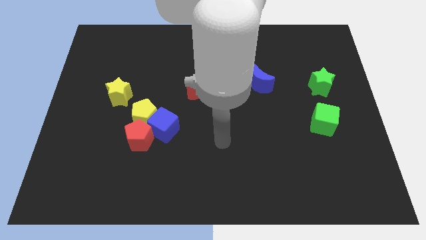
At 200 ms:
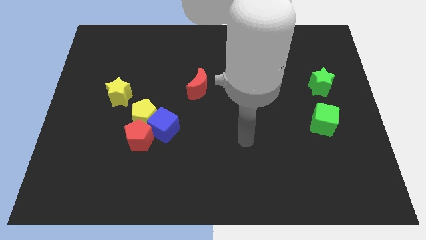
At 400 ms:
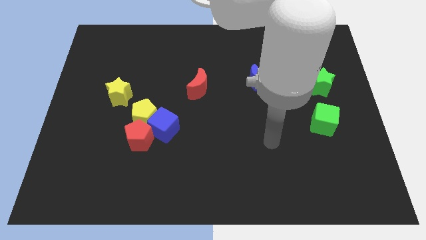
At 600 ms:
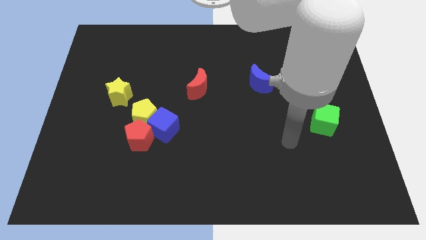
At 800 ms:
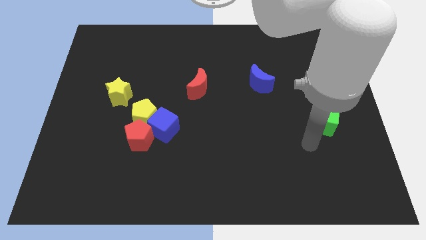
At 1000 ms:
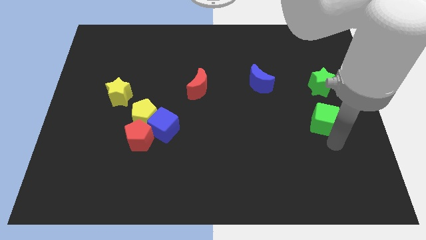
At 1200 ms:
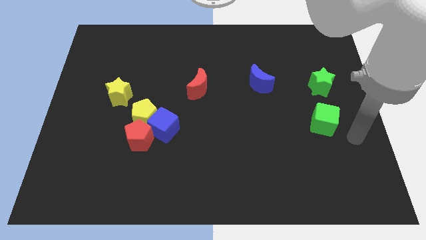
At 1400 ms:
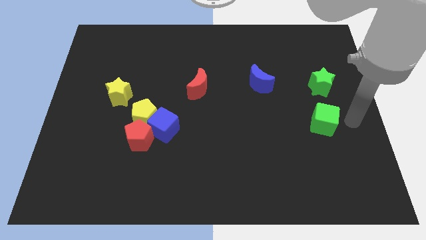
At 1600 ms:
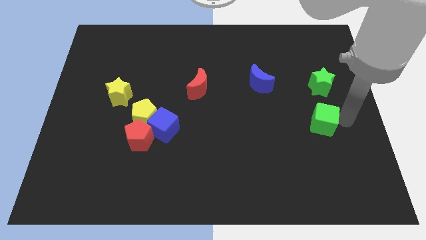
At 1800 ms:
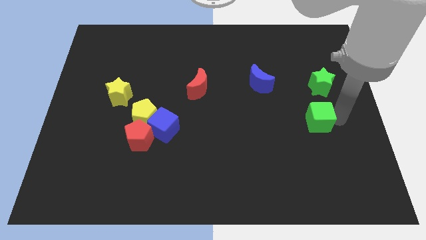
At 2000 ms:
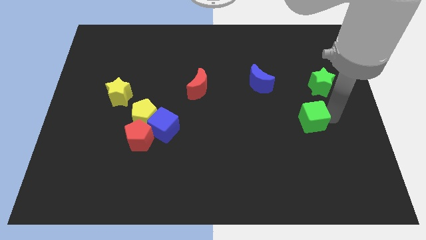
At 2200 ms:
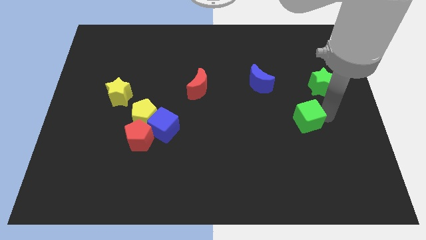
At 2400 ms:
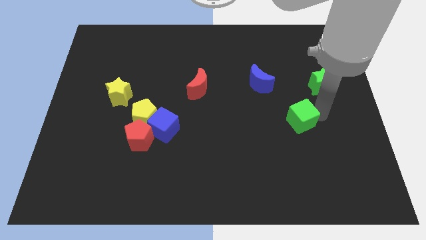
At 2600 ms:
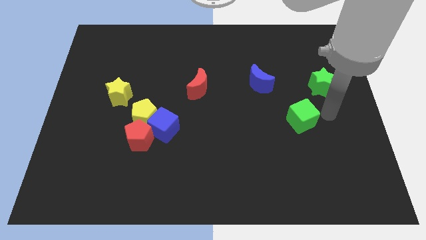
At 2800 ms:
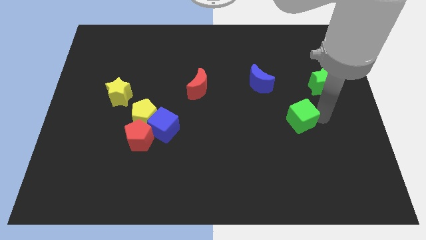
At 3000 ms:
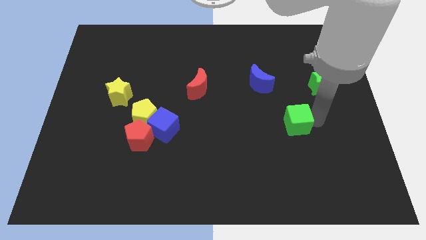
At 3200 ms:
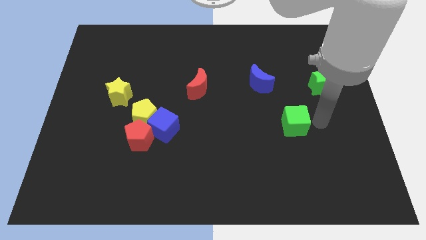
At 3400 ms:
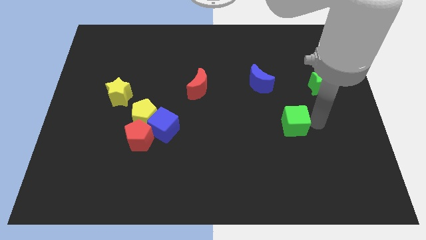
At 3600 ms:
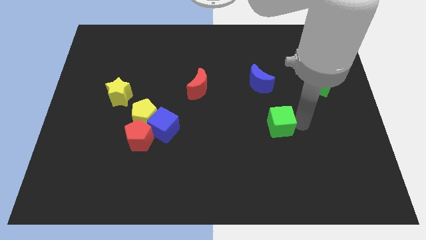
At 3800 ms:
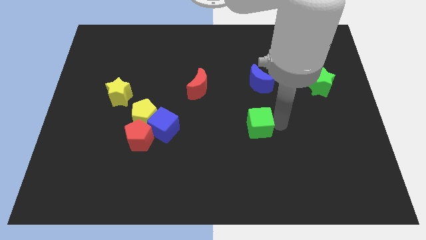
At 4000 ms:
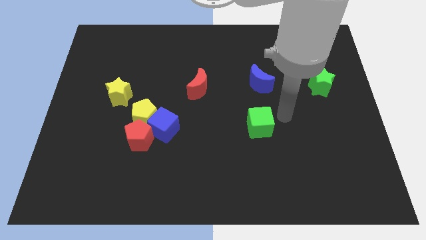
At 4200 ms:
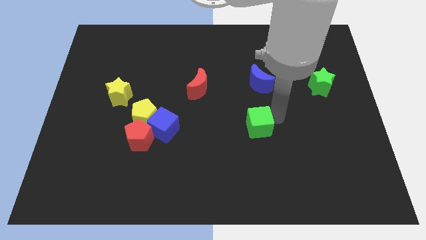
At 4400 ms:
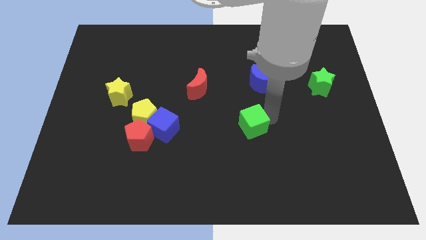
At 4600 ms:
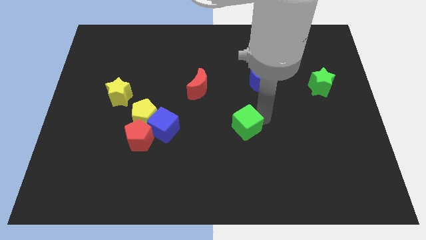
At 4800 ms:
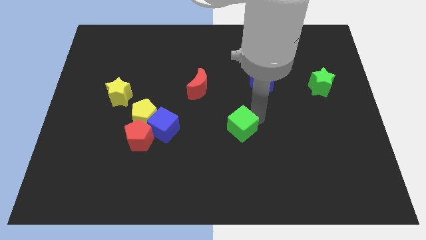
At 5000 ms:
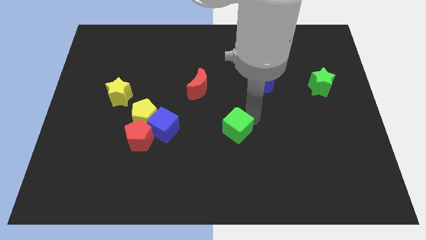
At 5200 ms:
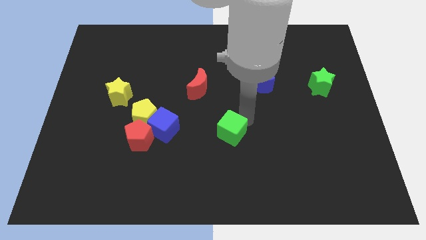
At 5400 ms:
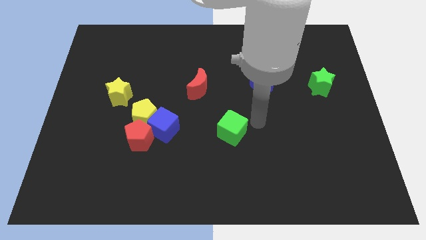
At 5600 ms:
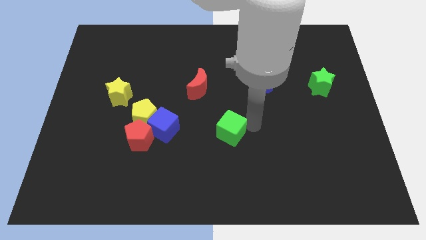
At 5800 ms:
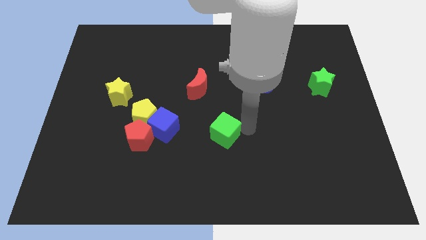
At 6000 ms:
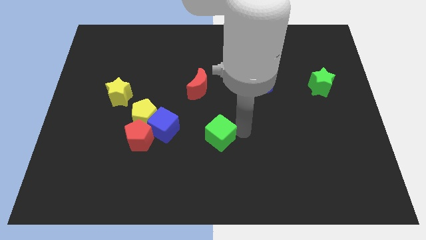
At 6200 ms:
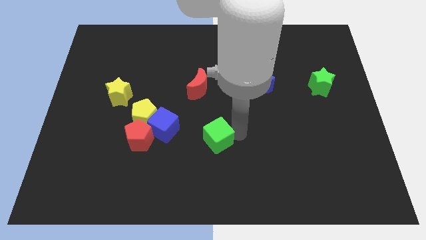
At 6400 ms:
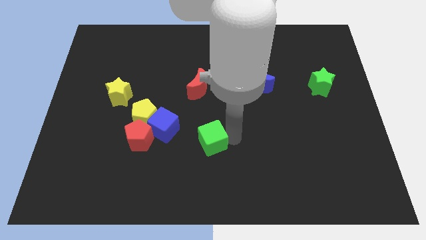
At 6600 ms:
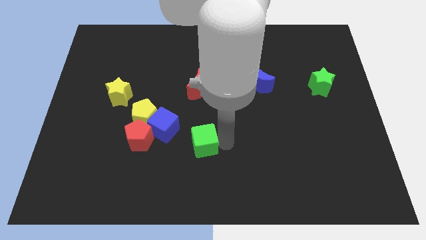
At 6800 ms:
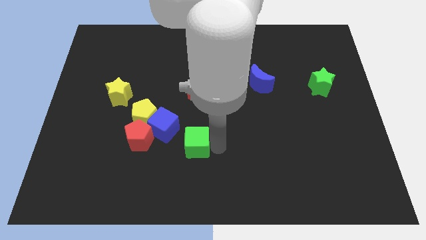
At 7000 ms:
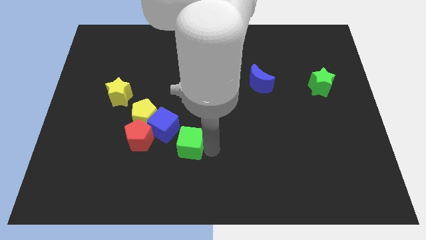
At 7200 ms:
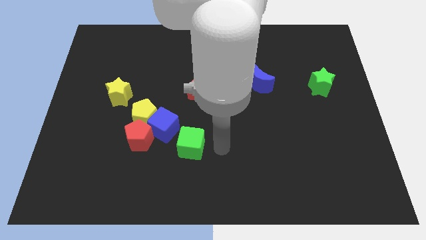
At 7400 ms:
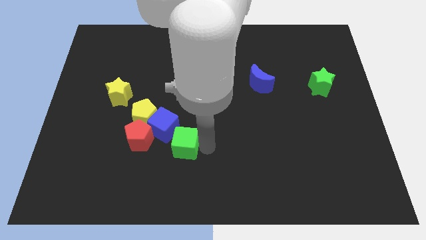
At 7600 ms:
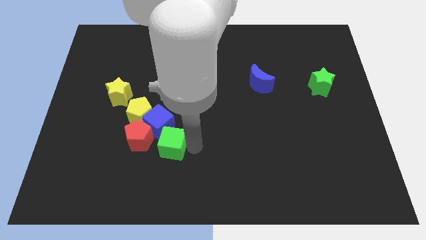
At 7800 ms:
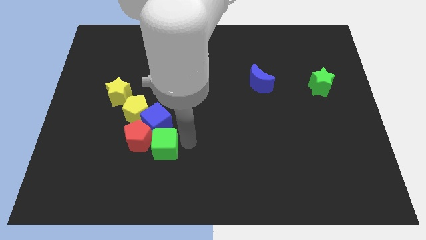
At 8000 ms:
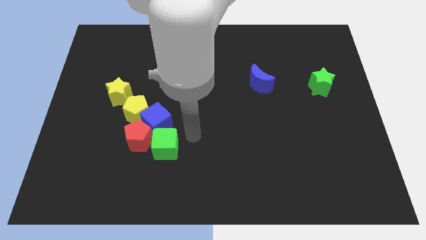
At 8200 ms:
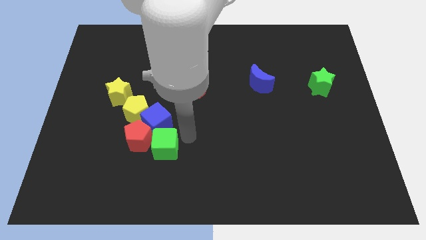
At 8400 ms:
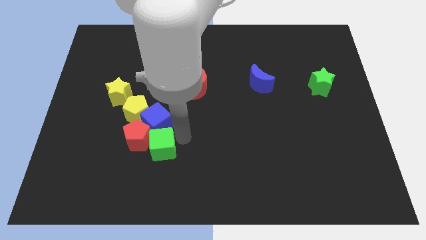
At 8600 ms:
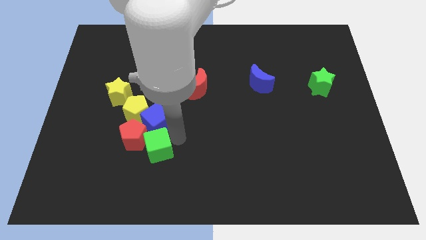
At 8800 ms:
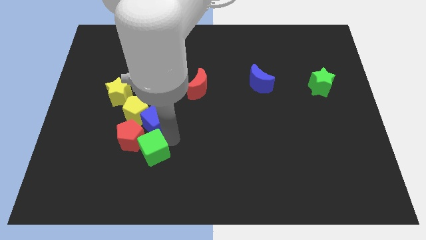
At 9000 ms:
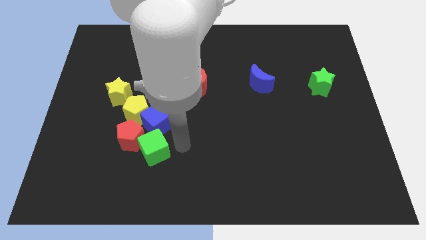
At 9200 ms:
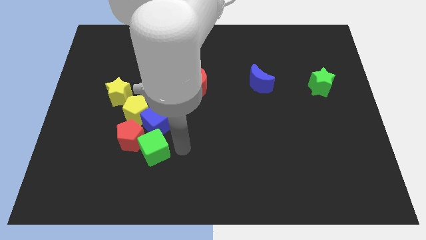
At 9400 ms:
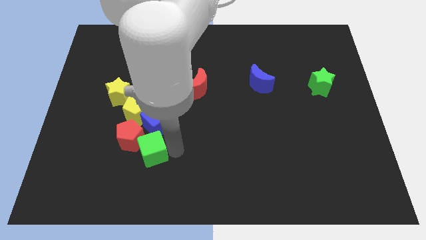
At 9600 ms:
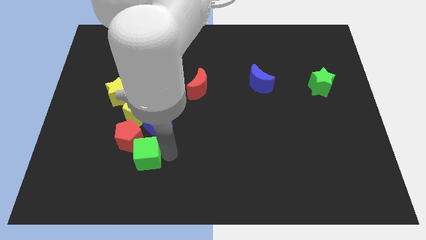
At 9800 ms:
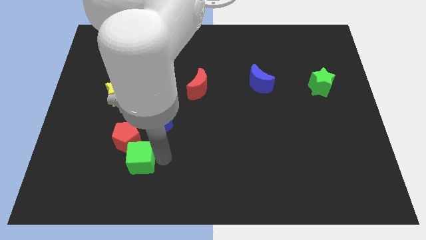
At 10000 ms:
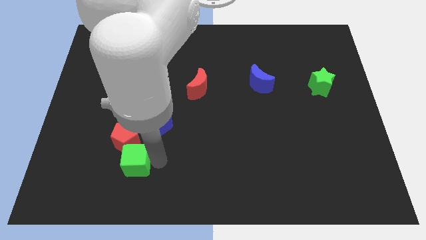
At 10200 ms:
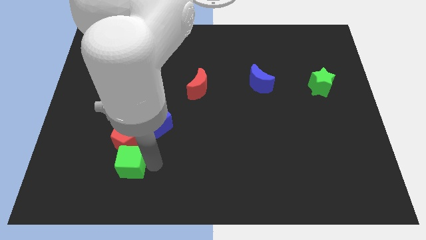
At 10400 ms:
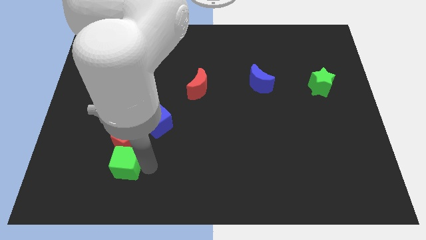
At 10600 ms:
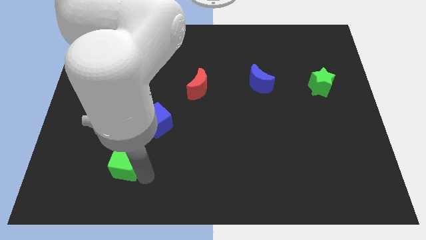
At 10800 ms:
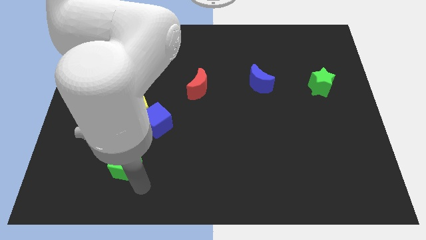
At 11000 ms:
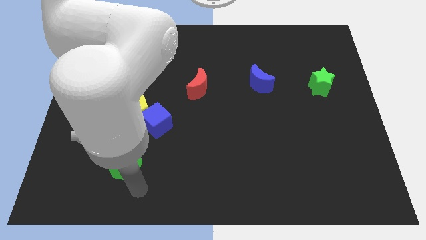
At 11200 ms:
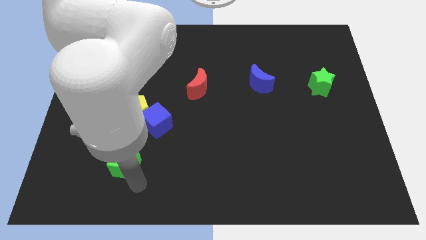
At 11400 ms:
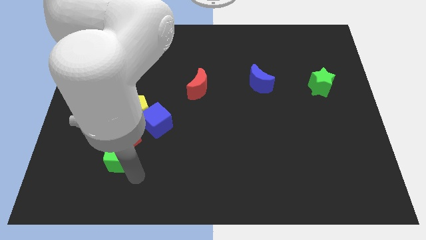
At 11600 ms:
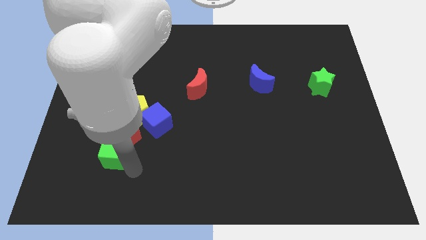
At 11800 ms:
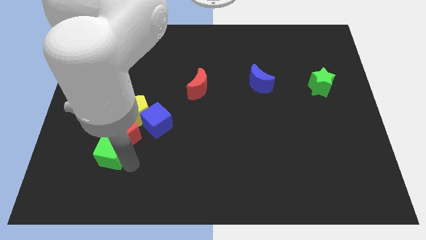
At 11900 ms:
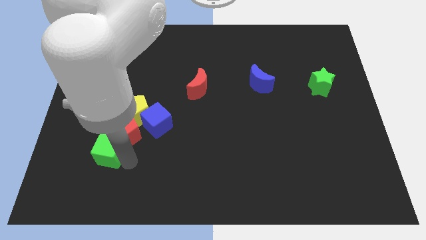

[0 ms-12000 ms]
slide the green cube diagonally down and to the left of the yellow pentagon
